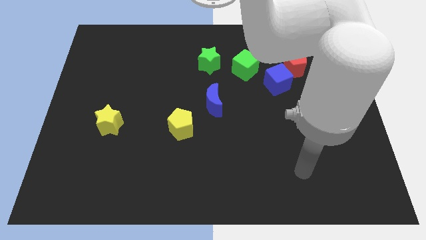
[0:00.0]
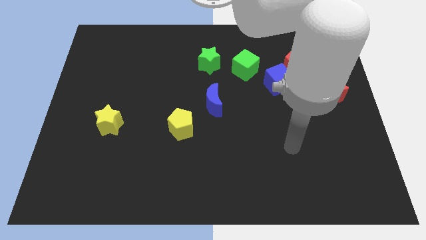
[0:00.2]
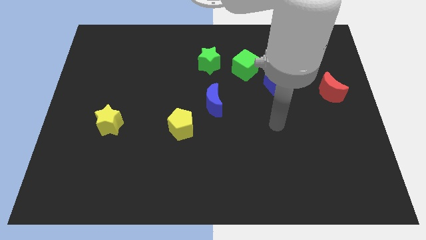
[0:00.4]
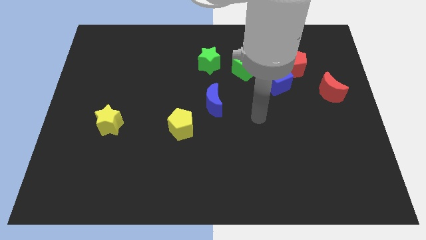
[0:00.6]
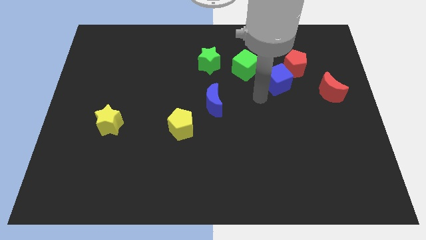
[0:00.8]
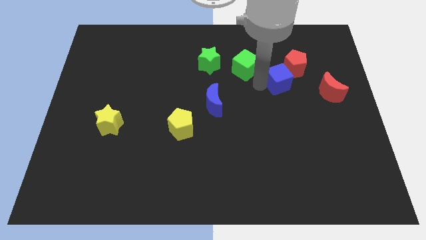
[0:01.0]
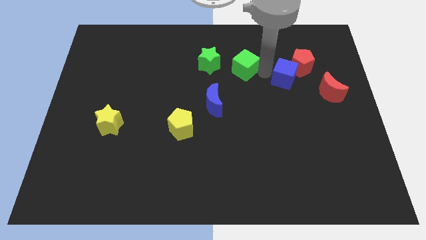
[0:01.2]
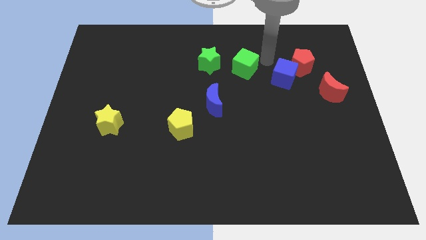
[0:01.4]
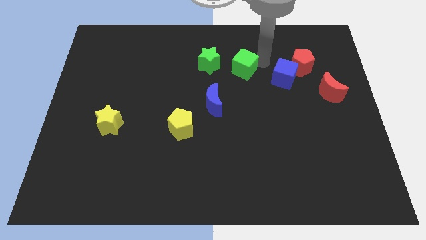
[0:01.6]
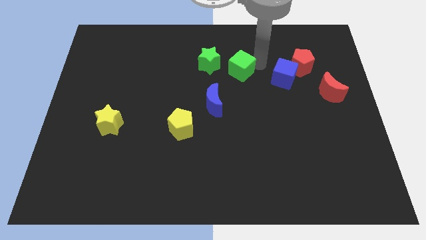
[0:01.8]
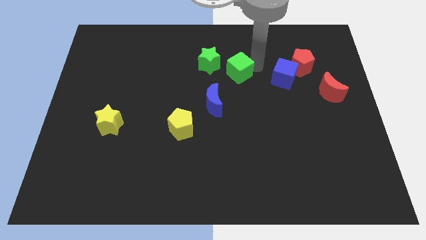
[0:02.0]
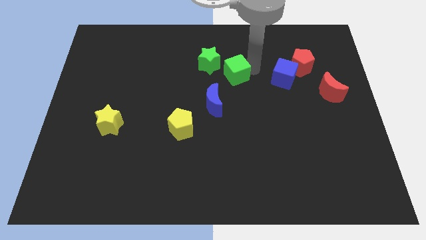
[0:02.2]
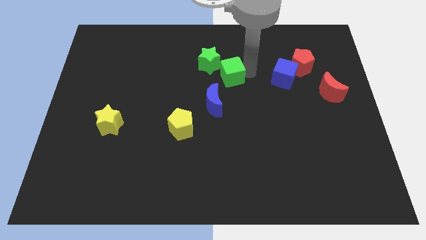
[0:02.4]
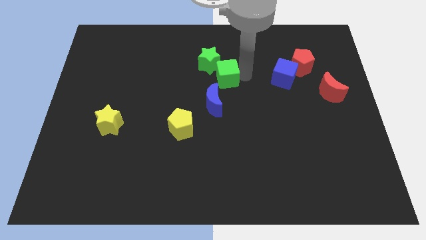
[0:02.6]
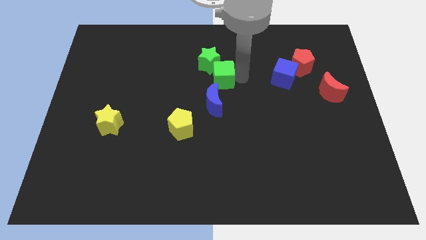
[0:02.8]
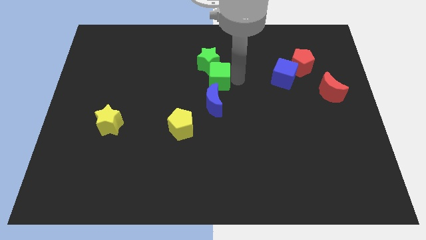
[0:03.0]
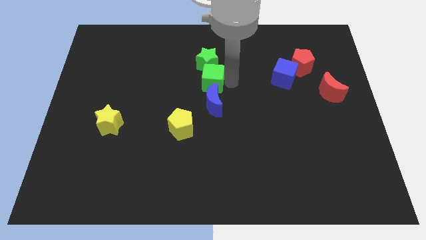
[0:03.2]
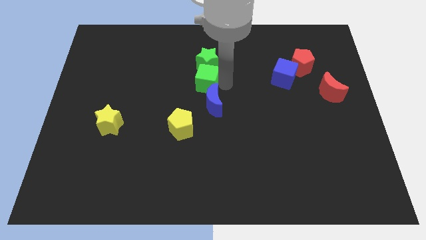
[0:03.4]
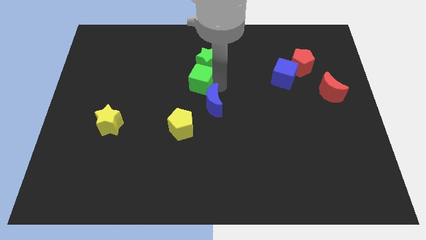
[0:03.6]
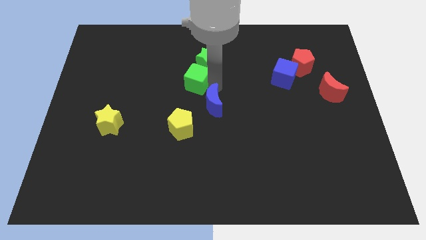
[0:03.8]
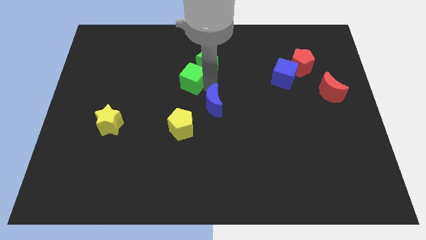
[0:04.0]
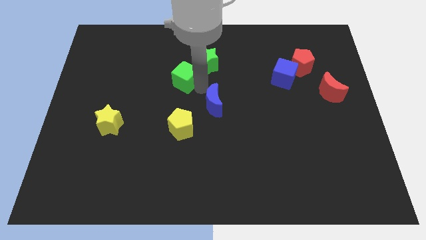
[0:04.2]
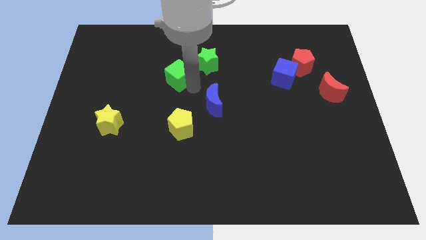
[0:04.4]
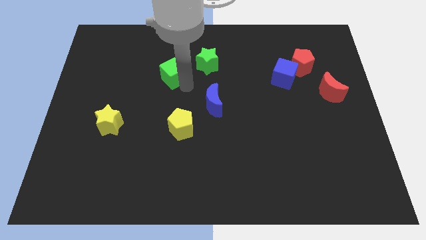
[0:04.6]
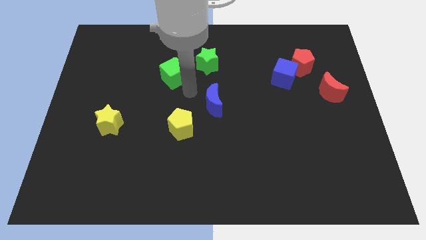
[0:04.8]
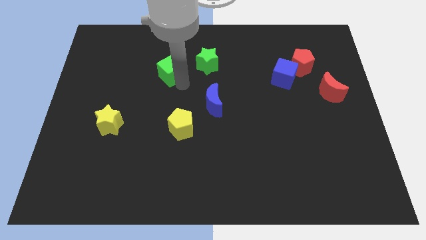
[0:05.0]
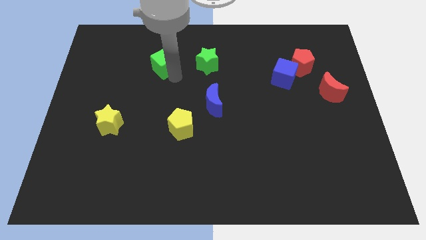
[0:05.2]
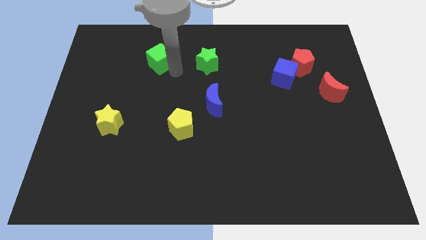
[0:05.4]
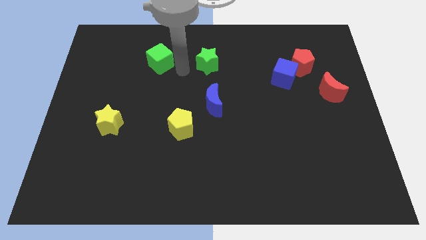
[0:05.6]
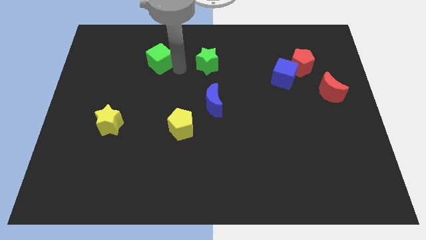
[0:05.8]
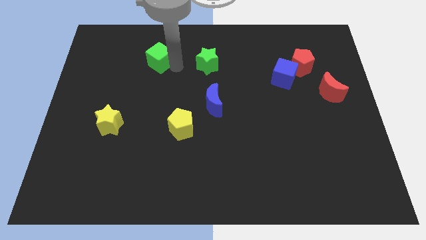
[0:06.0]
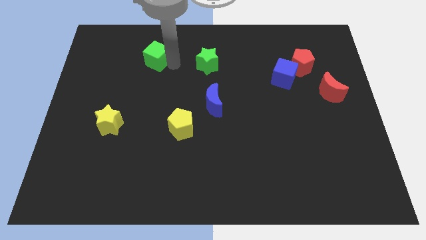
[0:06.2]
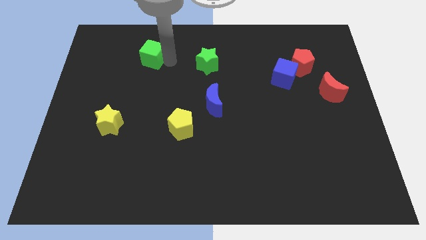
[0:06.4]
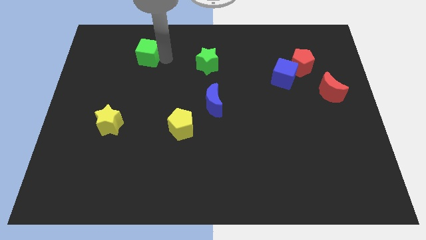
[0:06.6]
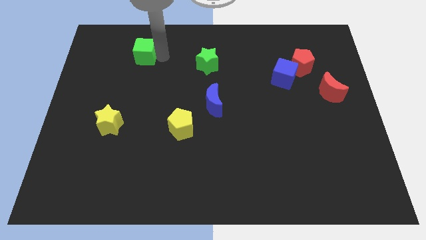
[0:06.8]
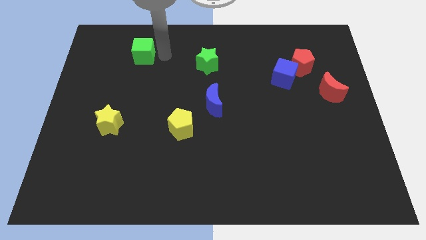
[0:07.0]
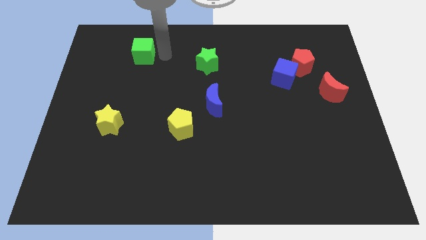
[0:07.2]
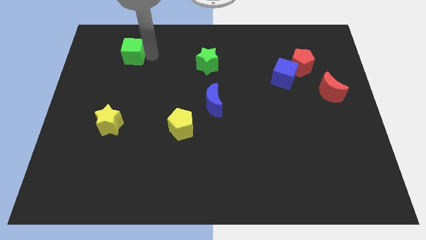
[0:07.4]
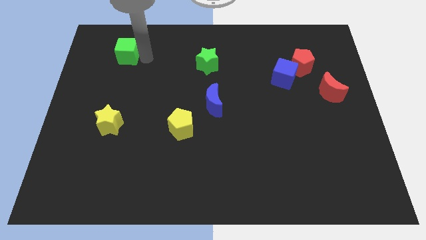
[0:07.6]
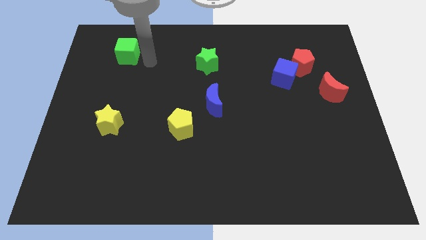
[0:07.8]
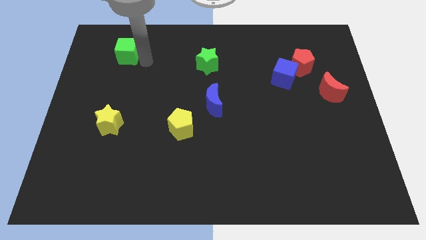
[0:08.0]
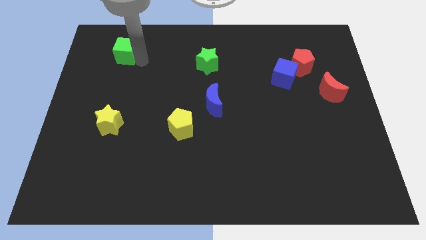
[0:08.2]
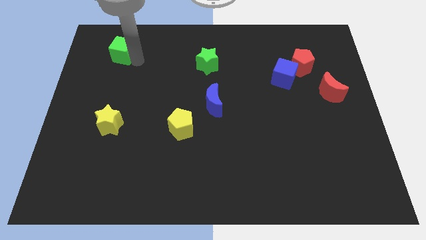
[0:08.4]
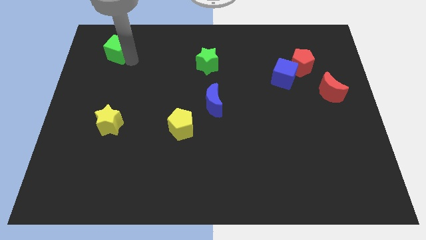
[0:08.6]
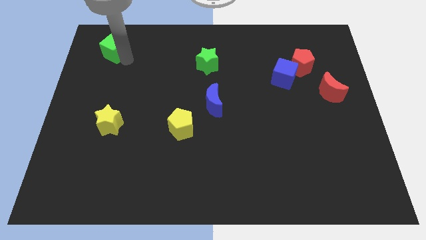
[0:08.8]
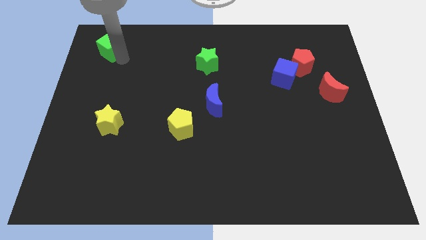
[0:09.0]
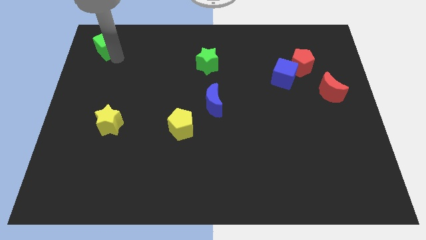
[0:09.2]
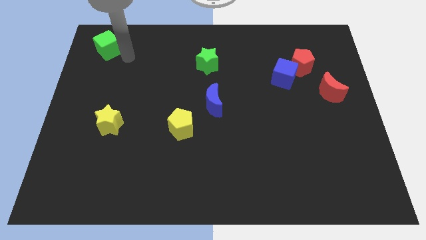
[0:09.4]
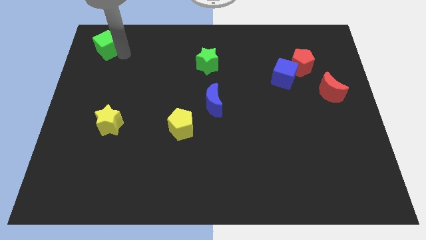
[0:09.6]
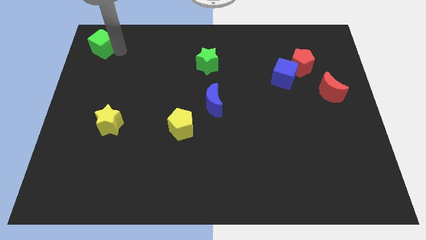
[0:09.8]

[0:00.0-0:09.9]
put the green cube to the top left corner
